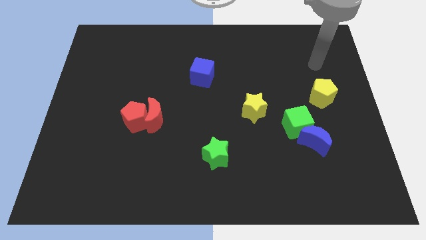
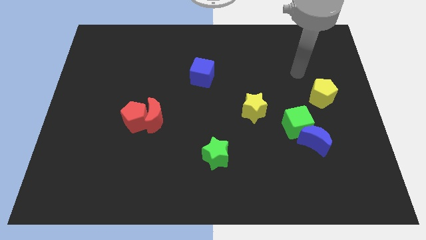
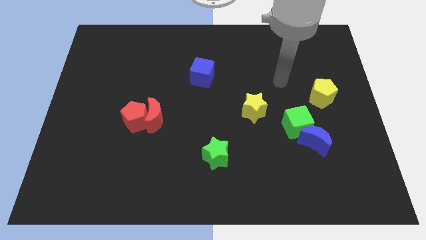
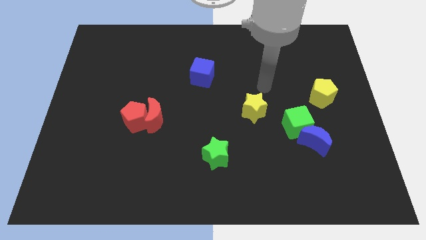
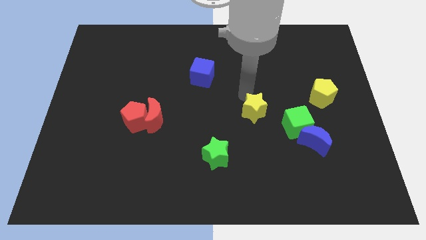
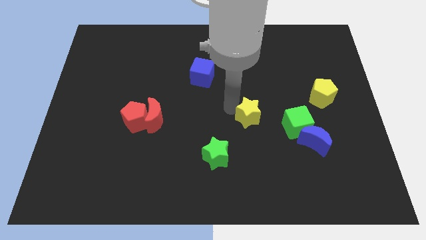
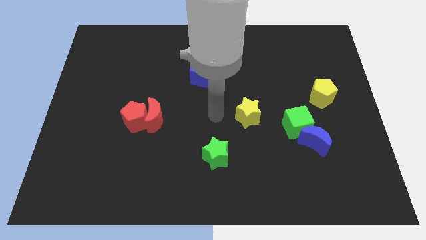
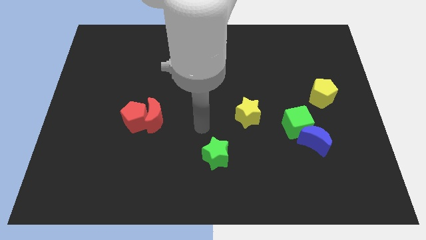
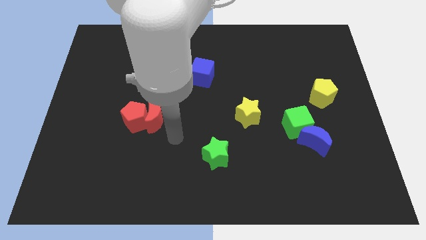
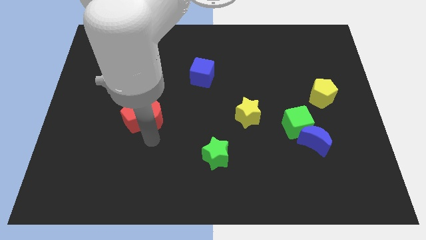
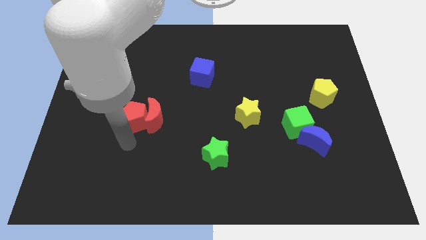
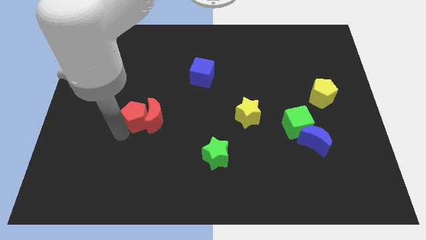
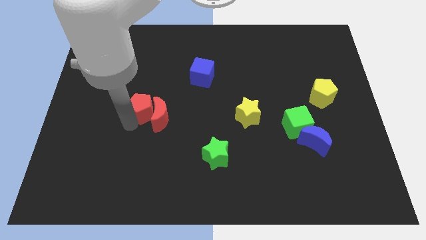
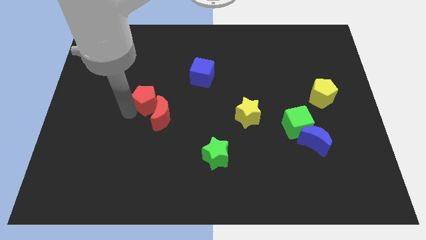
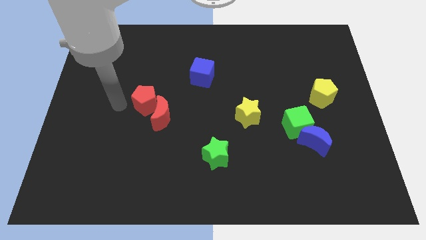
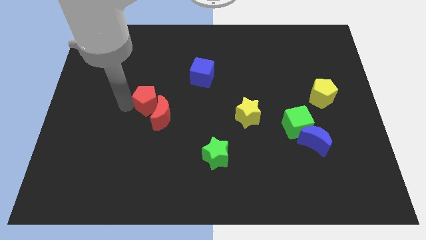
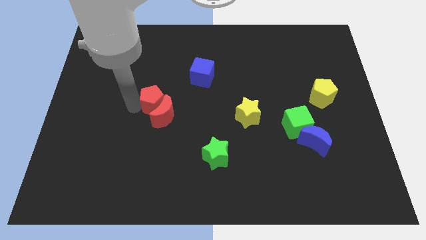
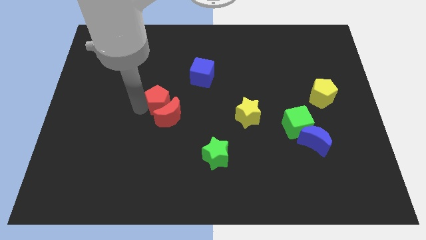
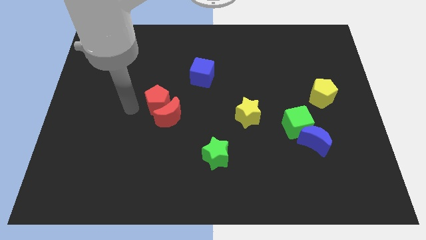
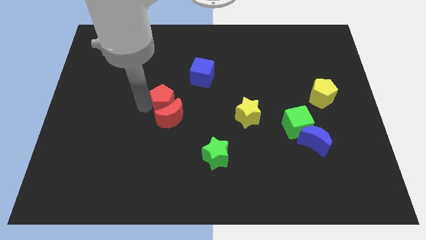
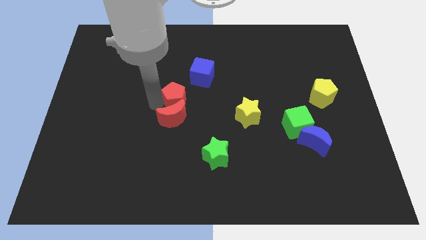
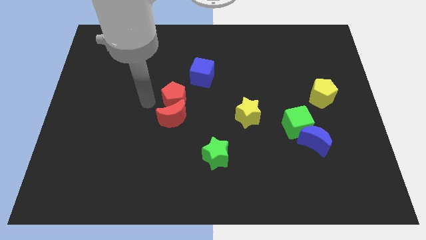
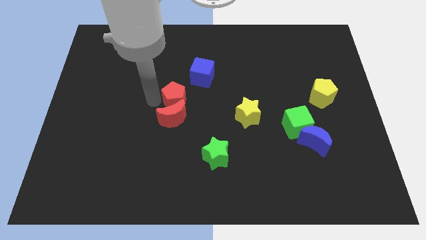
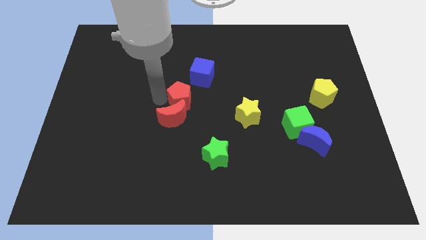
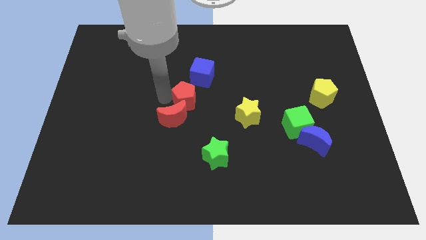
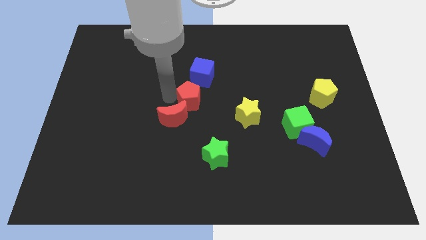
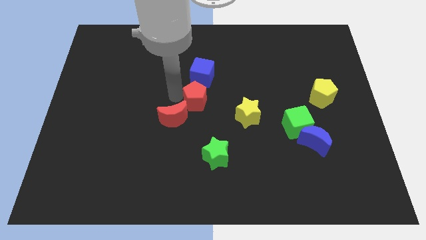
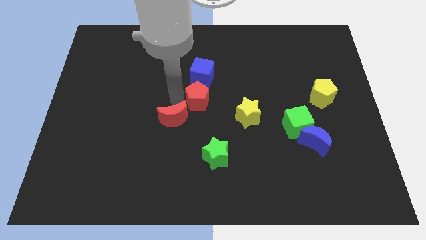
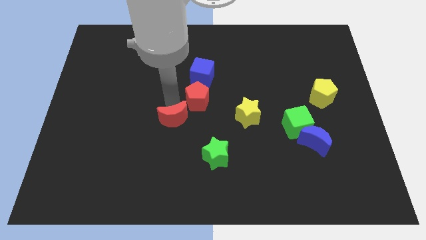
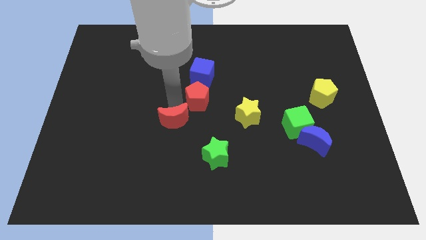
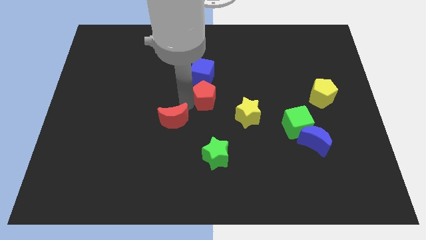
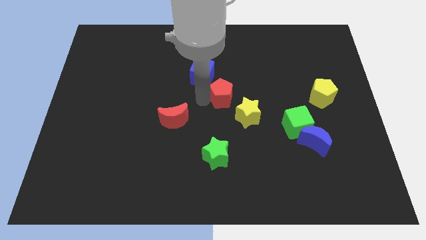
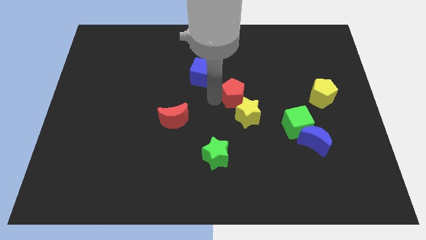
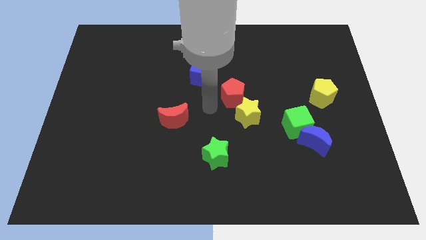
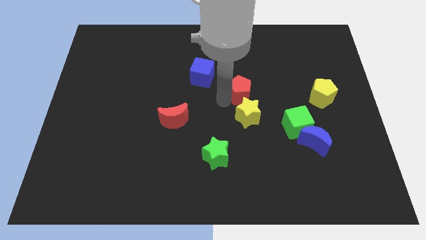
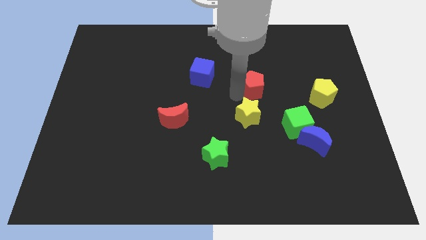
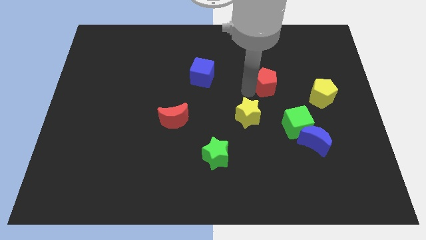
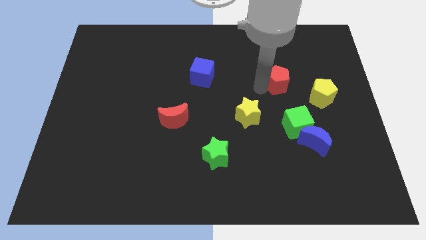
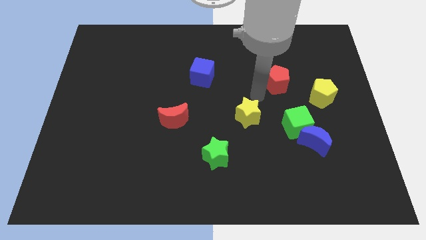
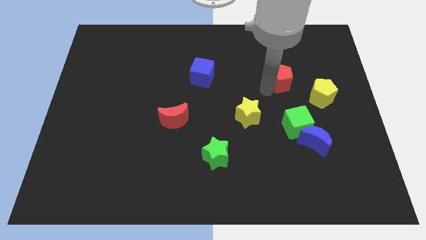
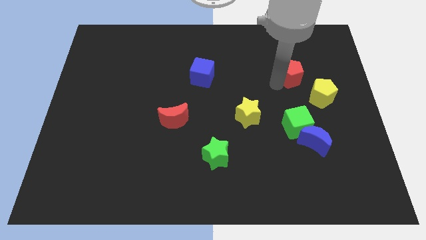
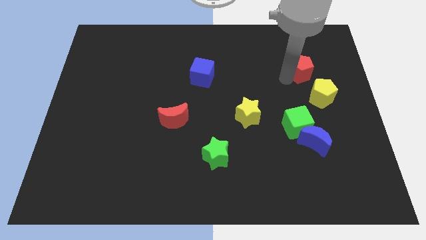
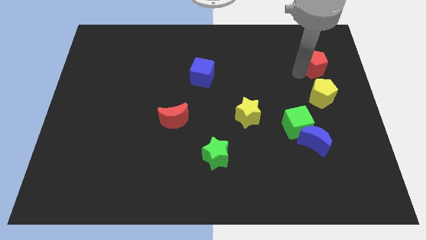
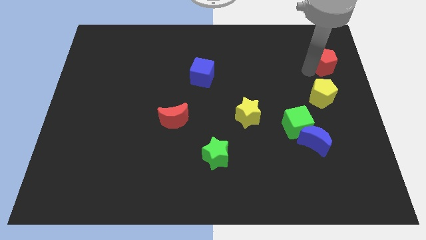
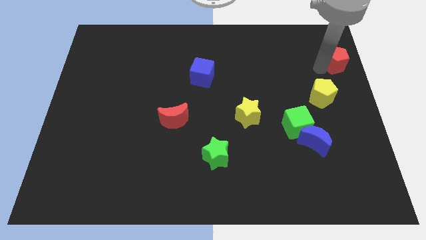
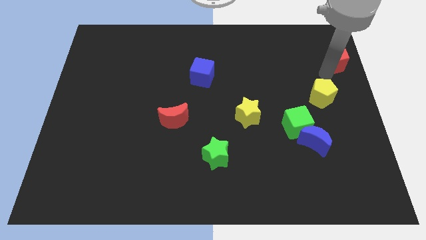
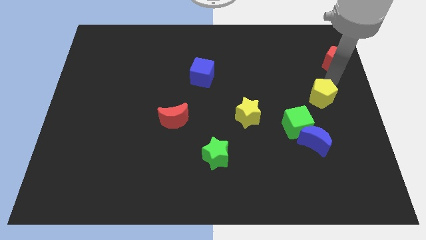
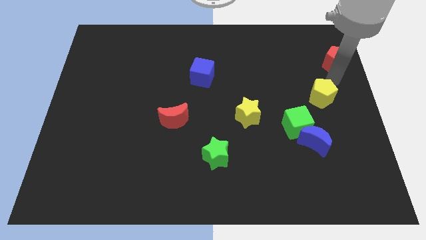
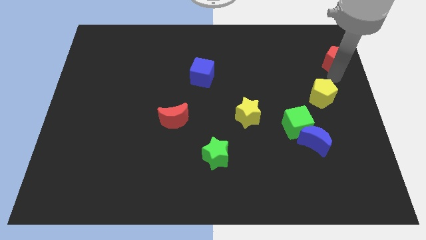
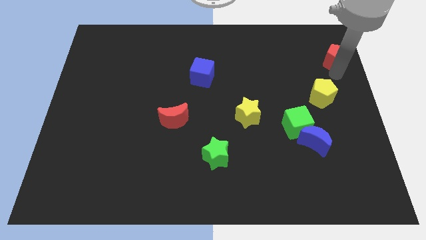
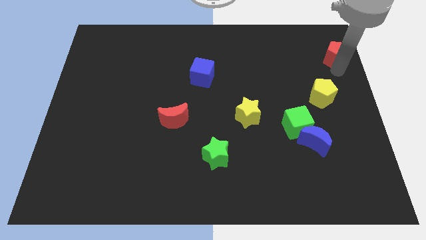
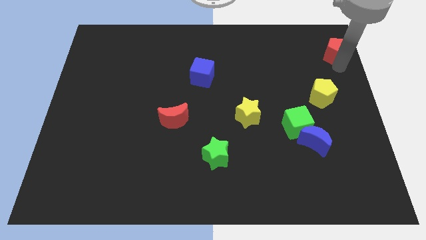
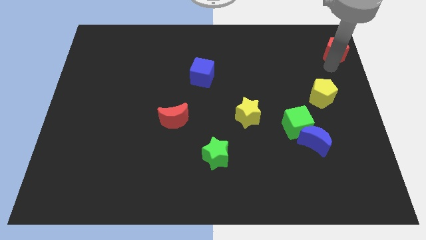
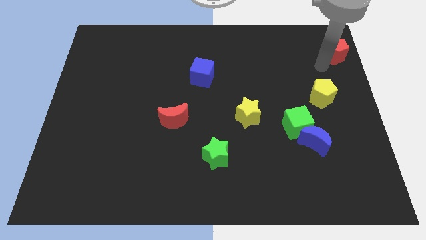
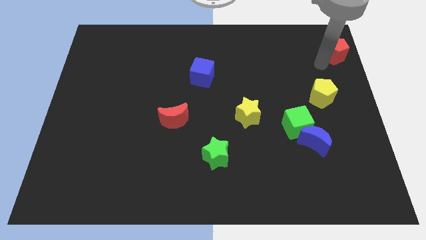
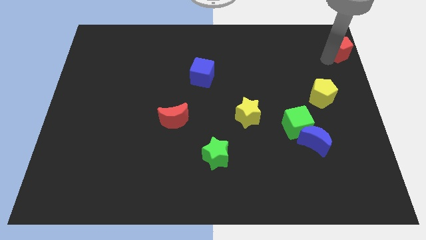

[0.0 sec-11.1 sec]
move the red pentagon to the upper right corner

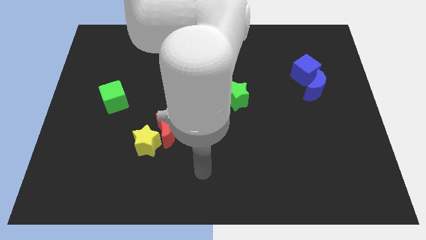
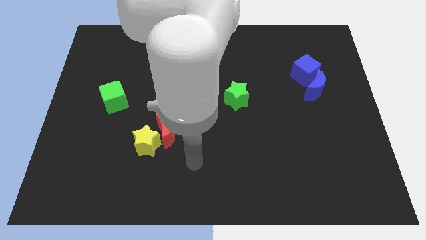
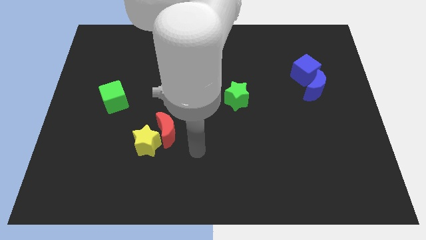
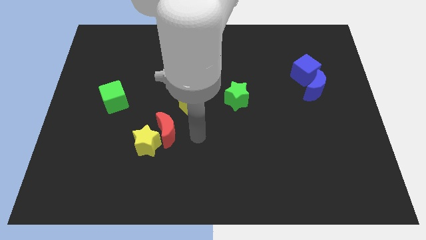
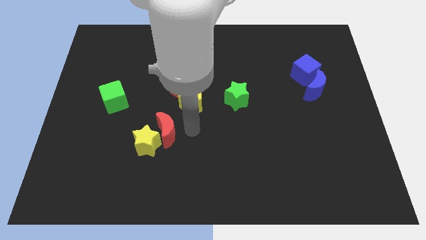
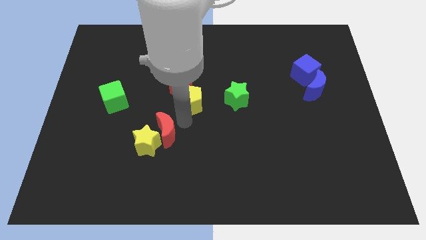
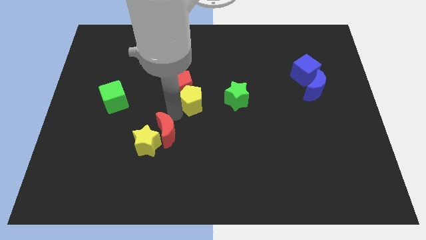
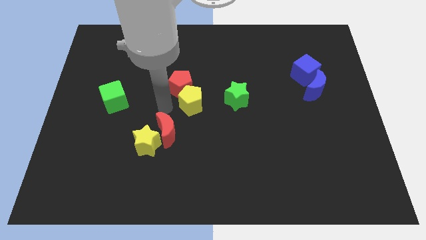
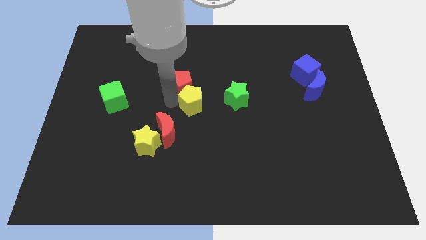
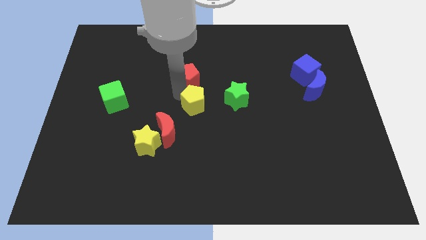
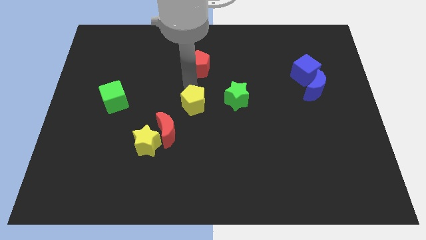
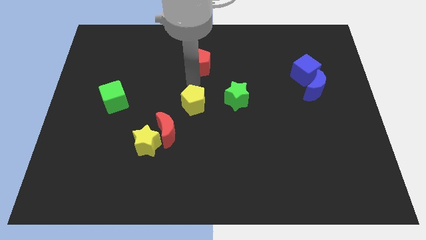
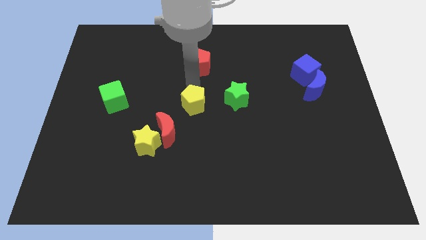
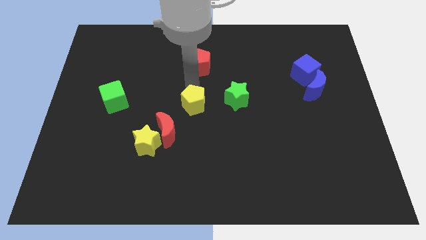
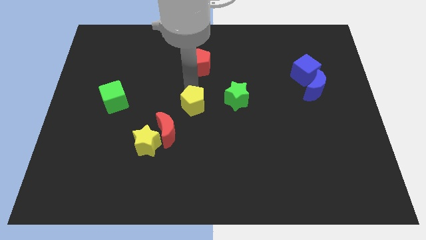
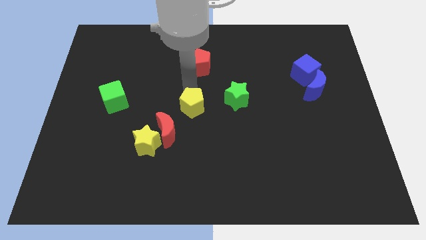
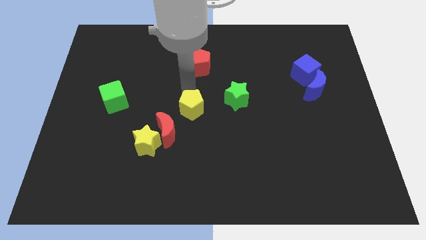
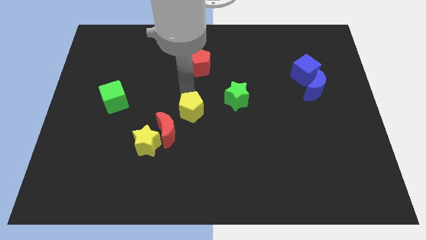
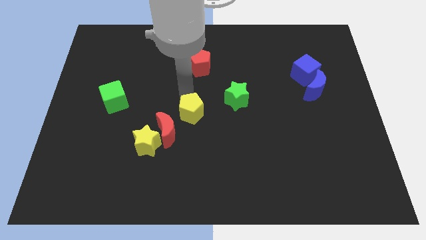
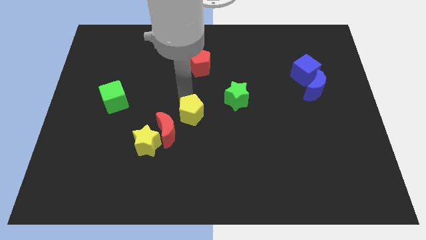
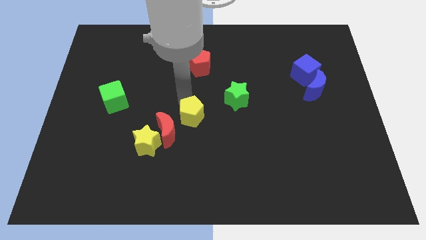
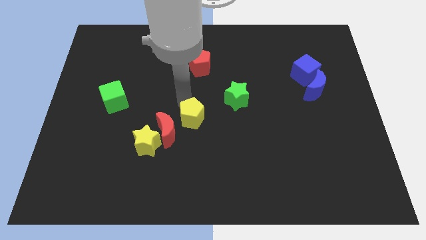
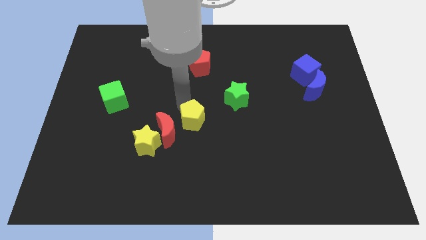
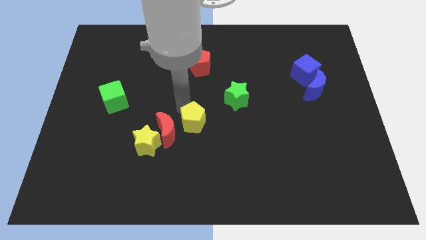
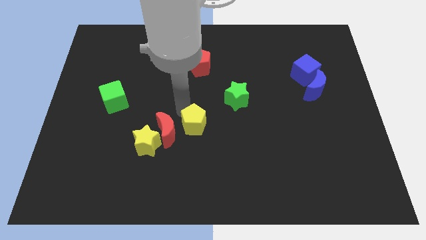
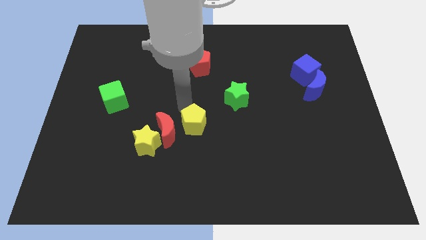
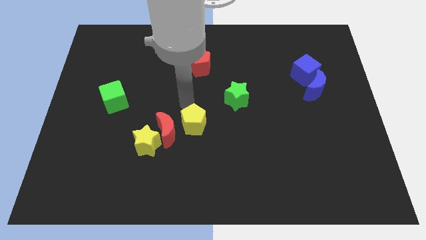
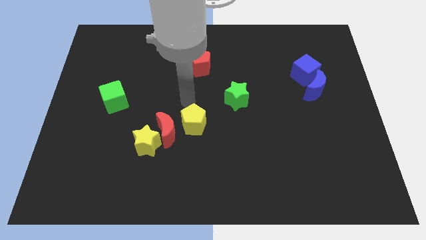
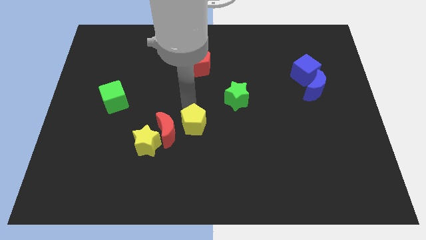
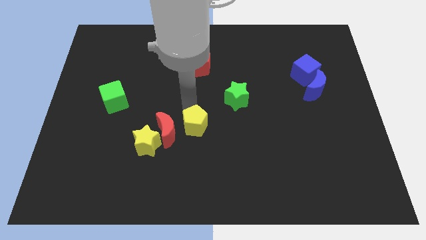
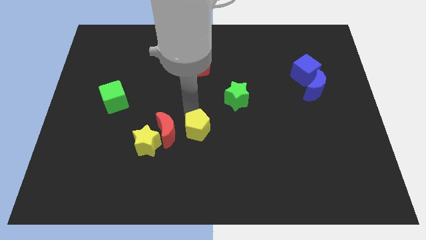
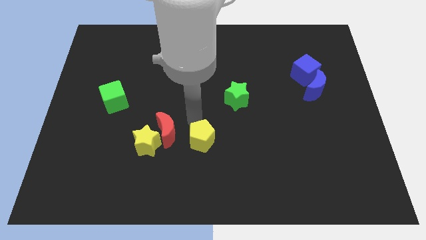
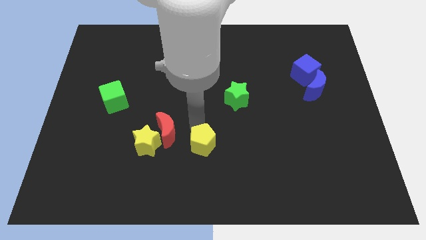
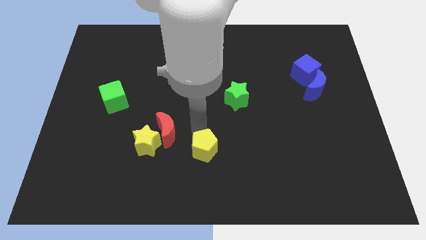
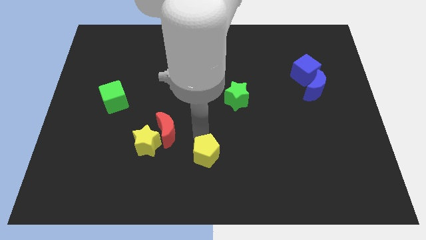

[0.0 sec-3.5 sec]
put the yellow pentagon to the bottom
